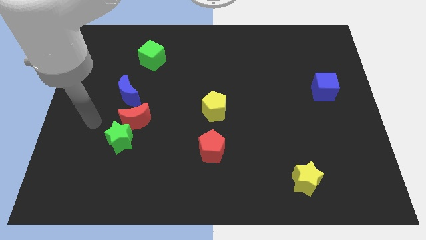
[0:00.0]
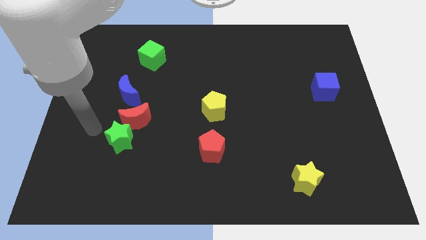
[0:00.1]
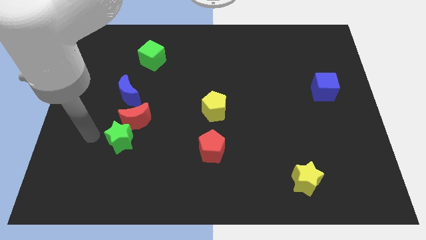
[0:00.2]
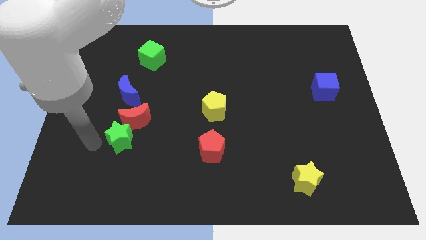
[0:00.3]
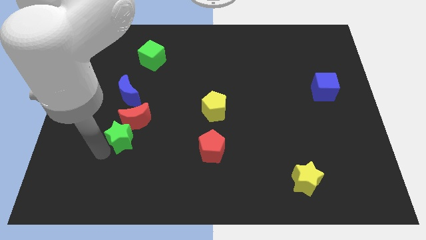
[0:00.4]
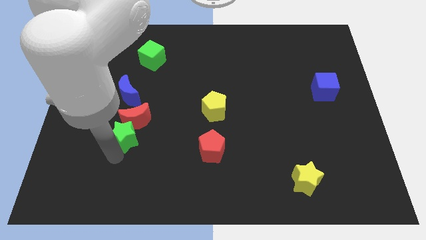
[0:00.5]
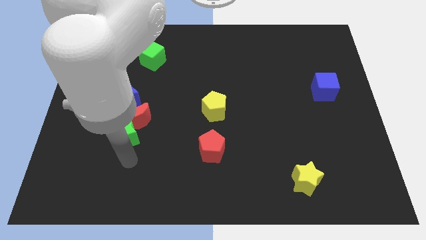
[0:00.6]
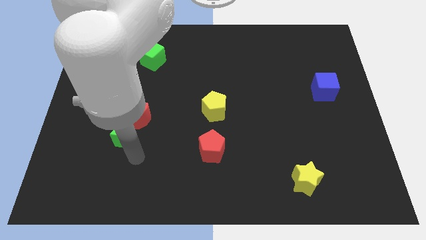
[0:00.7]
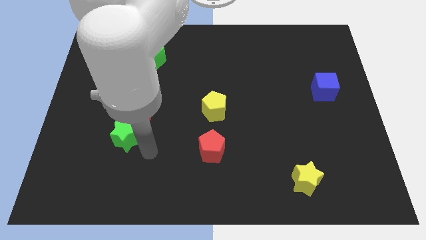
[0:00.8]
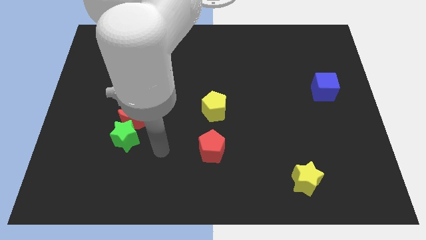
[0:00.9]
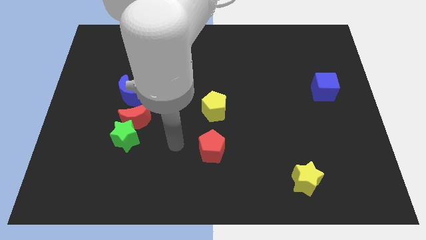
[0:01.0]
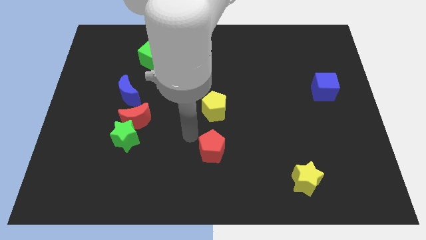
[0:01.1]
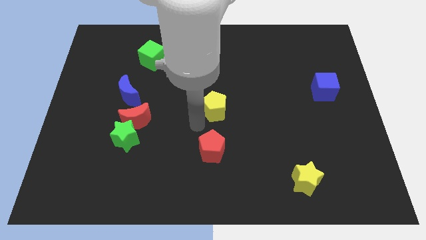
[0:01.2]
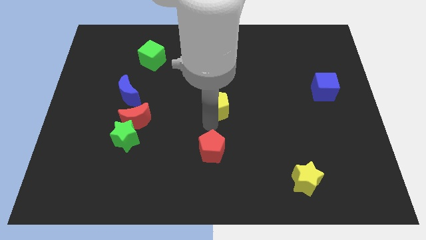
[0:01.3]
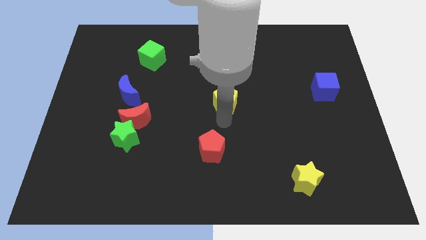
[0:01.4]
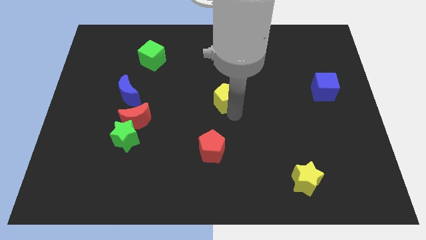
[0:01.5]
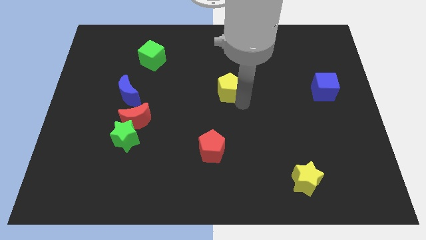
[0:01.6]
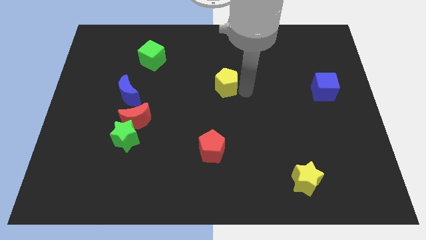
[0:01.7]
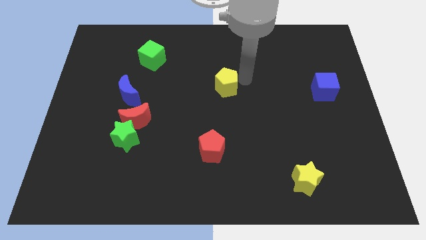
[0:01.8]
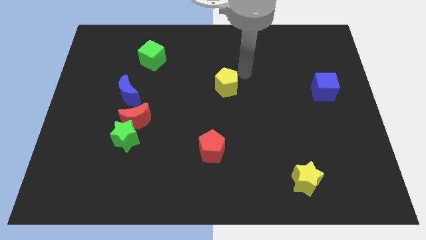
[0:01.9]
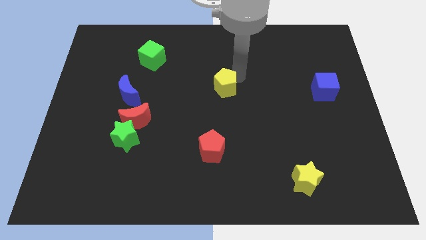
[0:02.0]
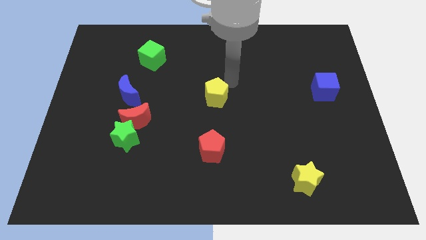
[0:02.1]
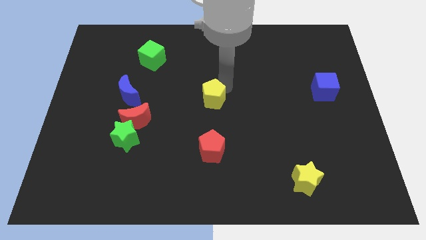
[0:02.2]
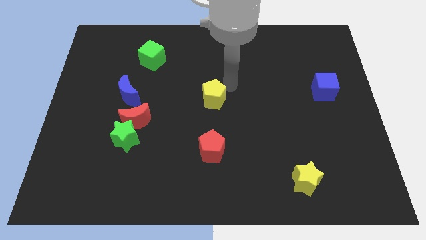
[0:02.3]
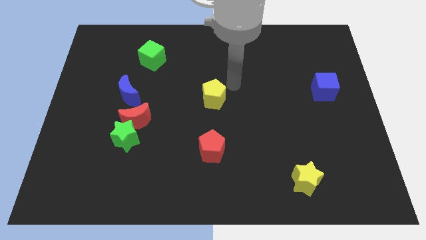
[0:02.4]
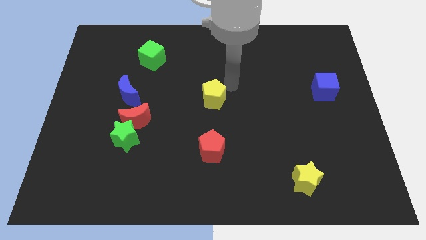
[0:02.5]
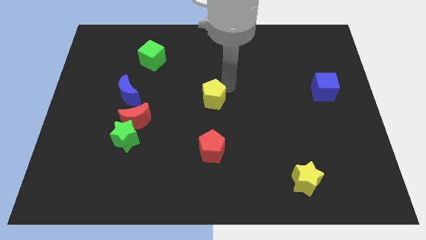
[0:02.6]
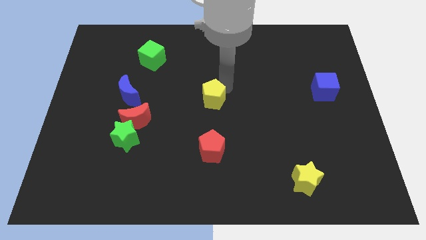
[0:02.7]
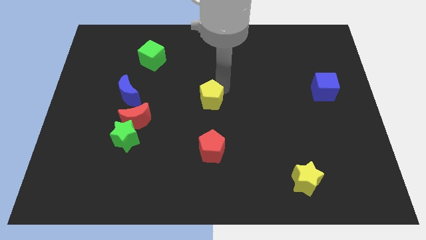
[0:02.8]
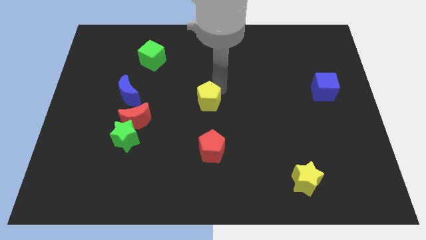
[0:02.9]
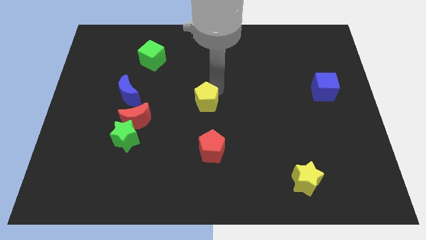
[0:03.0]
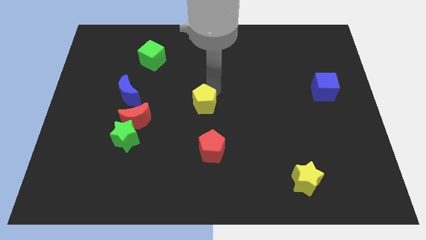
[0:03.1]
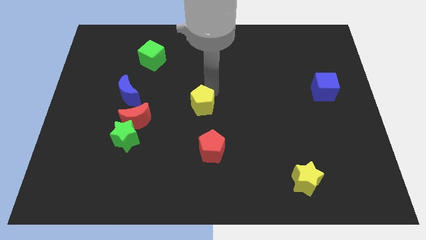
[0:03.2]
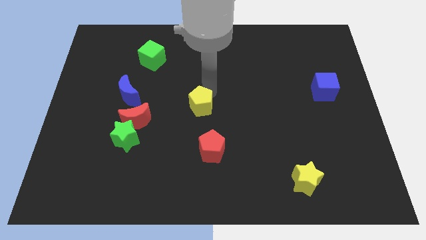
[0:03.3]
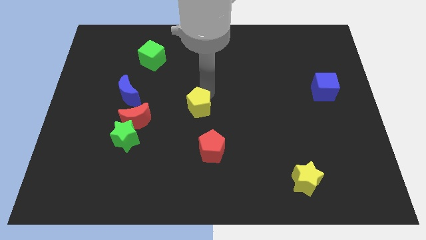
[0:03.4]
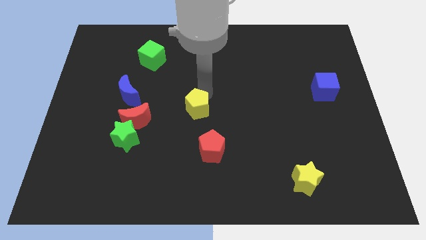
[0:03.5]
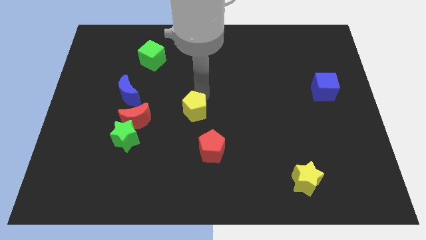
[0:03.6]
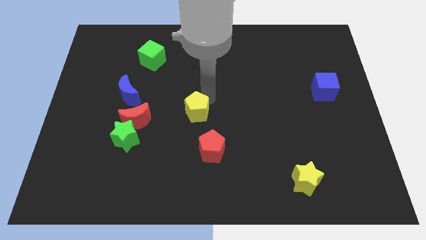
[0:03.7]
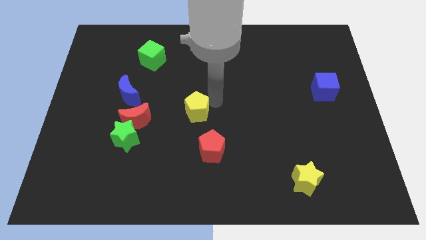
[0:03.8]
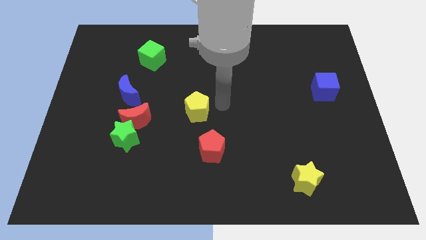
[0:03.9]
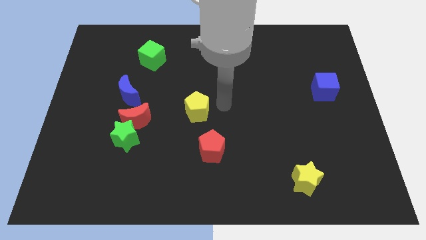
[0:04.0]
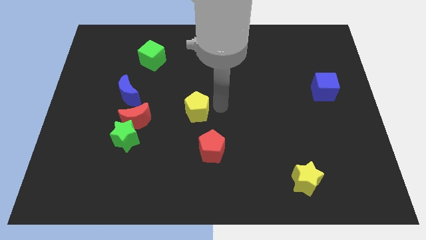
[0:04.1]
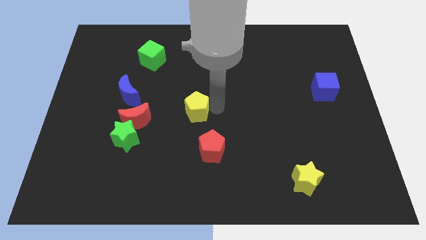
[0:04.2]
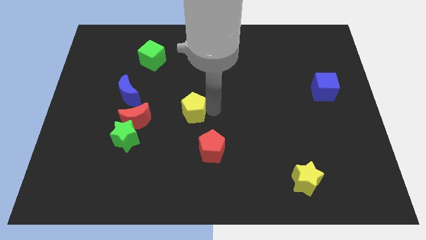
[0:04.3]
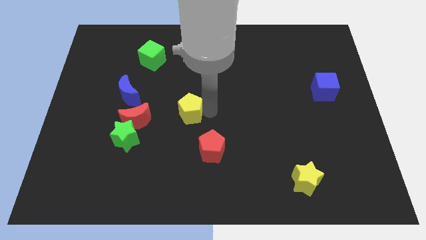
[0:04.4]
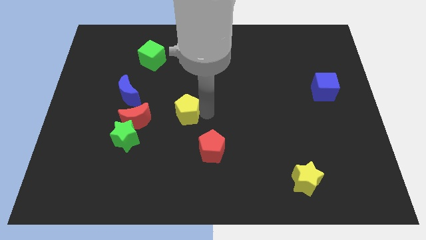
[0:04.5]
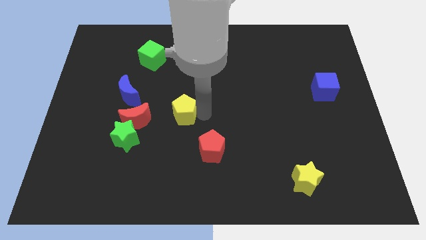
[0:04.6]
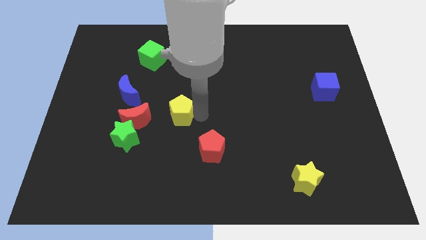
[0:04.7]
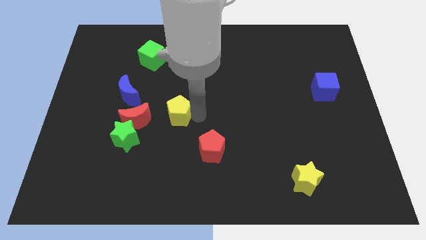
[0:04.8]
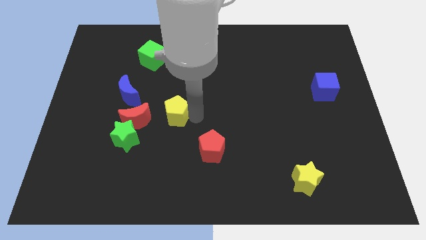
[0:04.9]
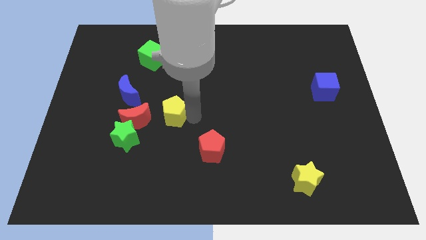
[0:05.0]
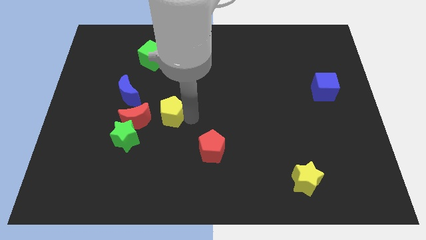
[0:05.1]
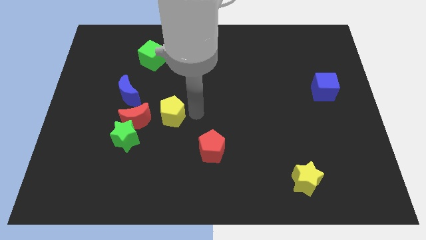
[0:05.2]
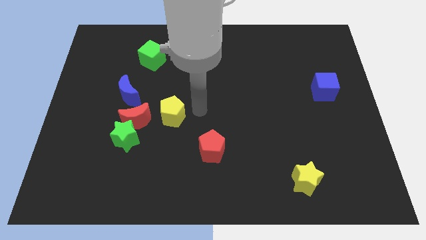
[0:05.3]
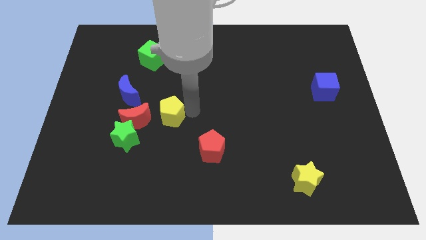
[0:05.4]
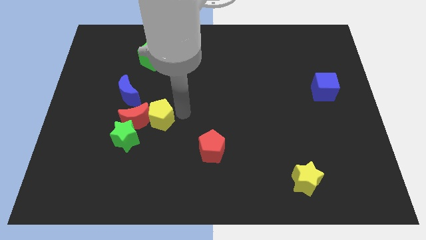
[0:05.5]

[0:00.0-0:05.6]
move the yellow pentagon to the red moon

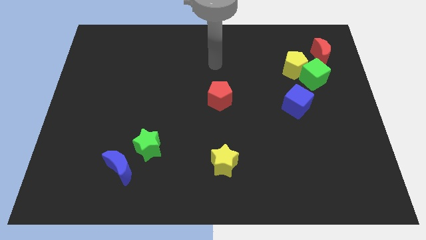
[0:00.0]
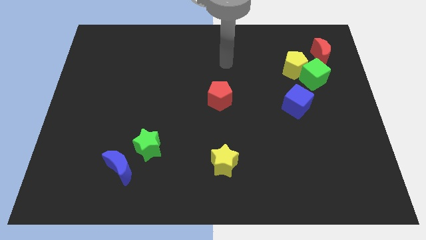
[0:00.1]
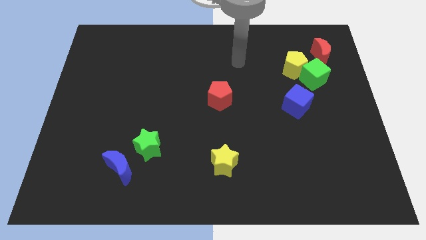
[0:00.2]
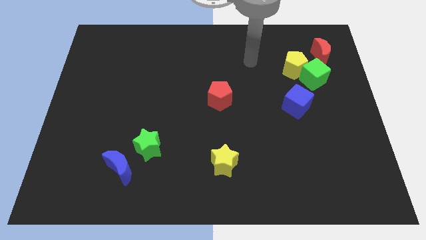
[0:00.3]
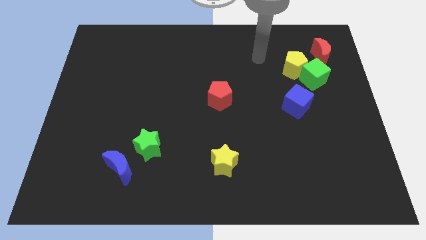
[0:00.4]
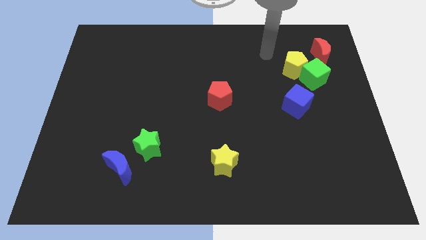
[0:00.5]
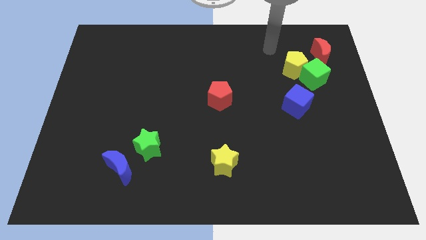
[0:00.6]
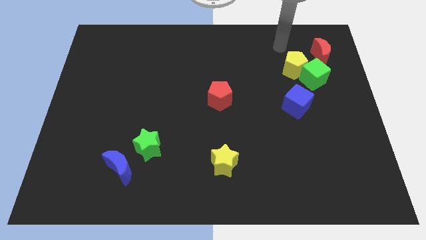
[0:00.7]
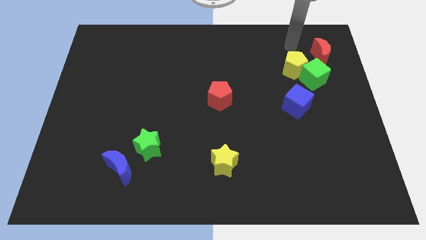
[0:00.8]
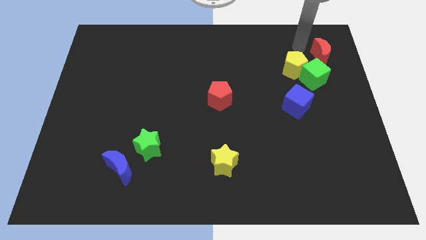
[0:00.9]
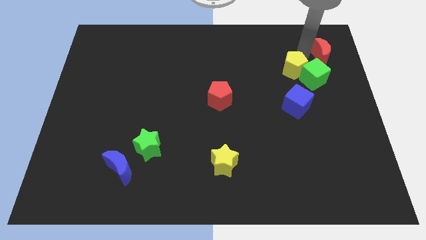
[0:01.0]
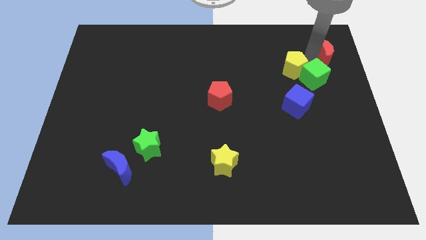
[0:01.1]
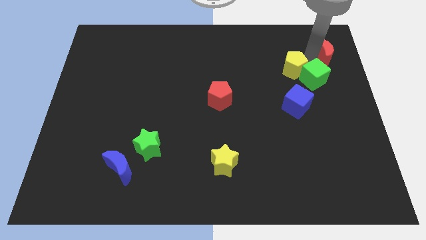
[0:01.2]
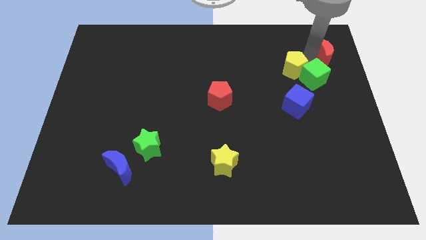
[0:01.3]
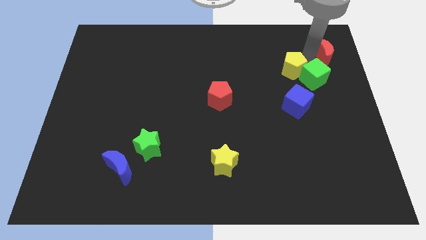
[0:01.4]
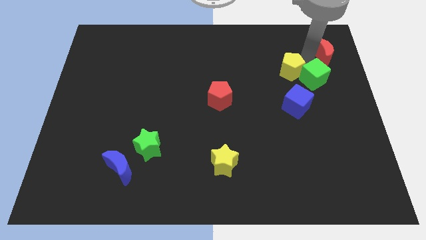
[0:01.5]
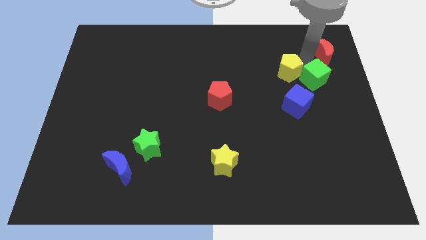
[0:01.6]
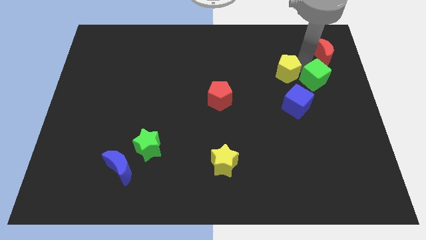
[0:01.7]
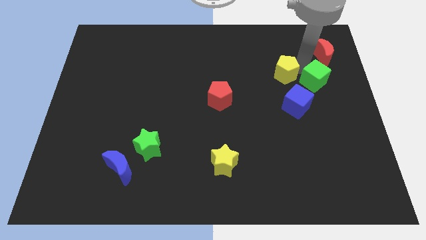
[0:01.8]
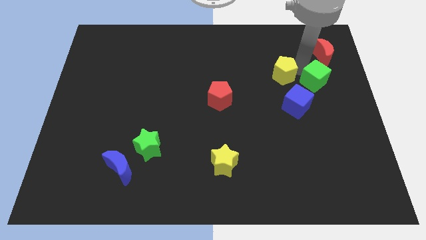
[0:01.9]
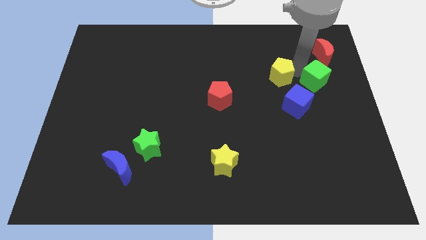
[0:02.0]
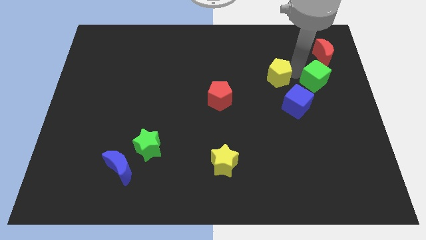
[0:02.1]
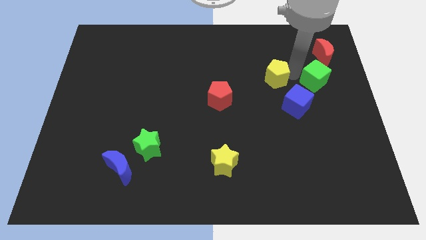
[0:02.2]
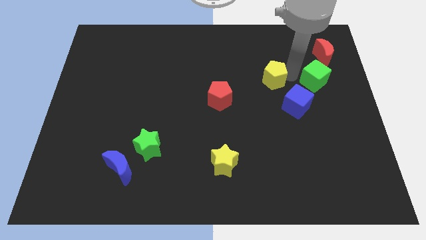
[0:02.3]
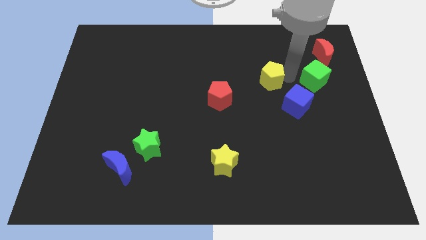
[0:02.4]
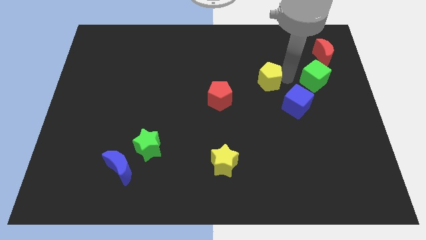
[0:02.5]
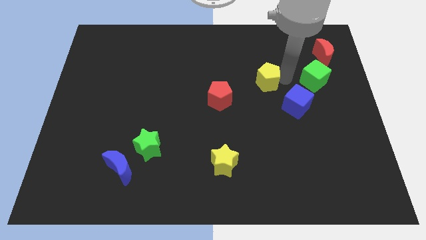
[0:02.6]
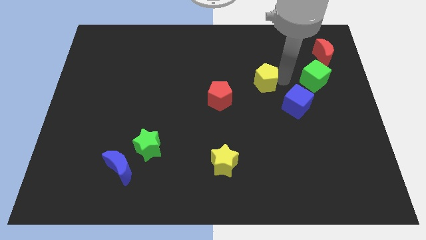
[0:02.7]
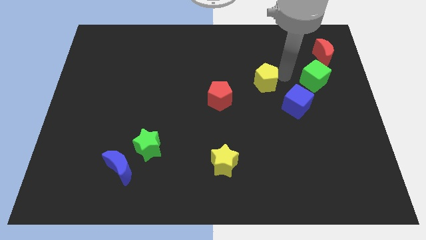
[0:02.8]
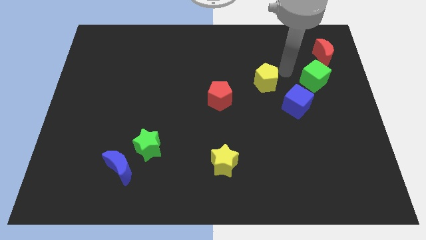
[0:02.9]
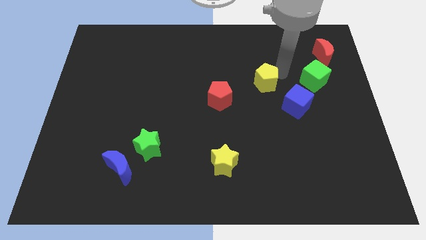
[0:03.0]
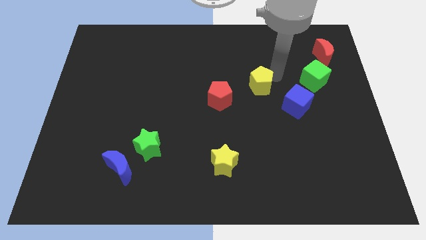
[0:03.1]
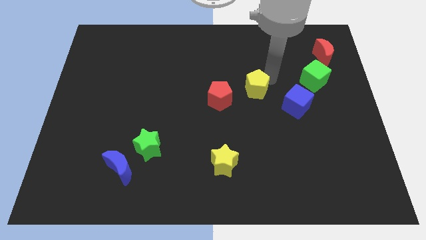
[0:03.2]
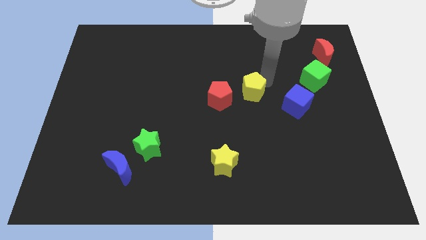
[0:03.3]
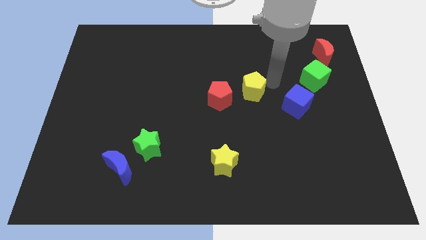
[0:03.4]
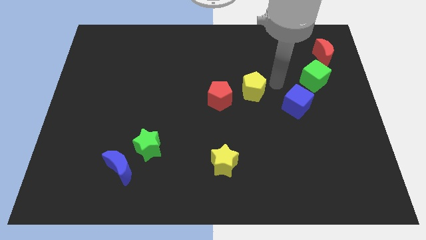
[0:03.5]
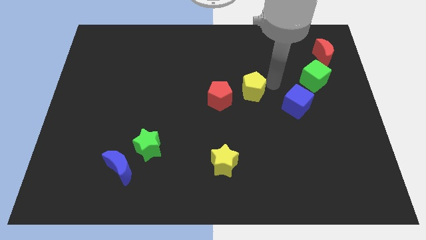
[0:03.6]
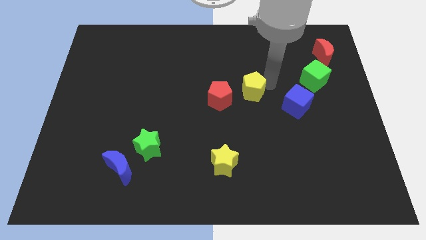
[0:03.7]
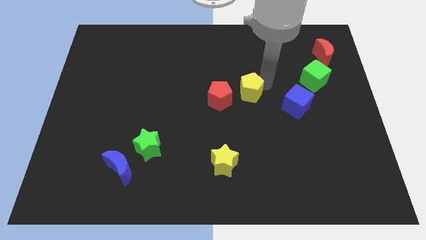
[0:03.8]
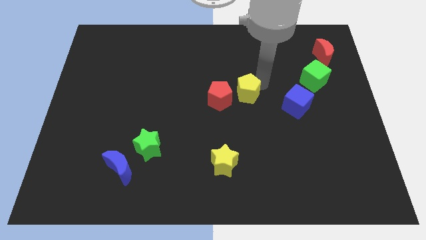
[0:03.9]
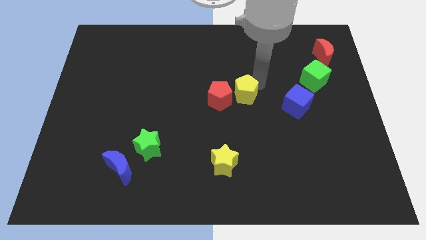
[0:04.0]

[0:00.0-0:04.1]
move the yellow pentagon towards the red pentagon
